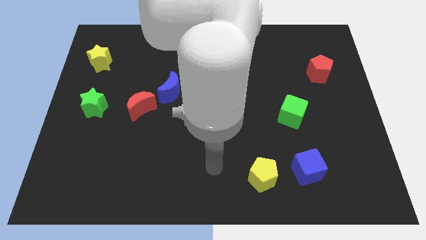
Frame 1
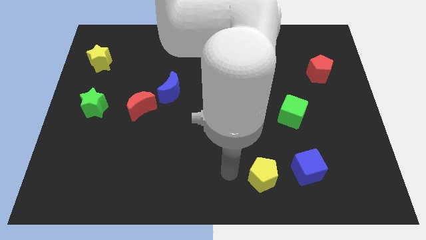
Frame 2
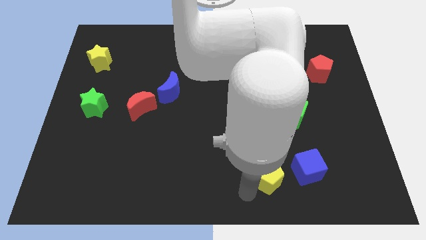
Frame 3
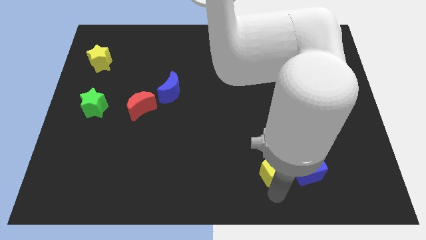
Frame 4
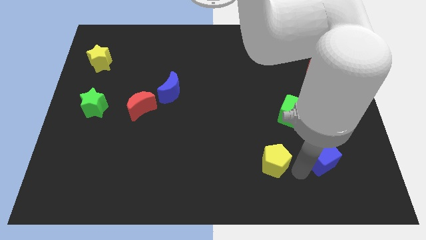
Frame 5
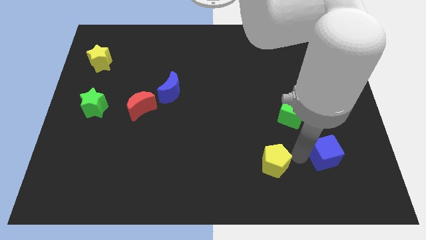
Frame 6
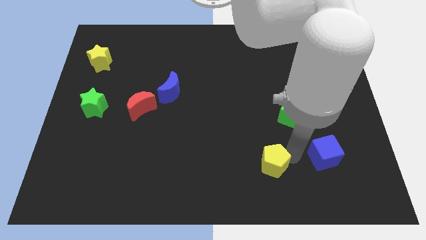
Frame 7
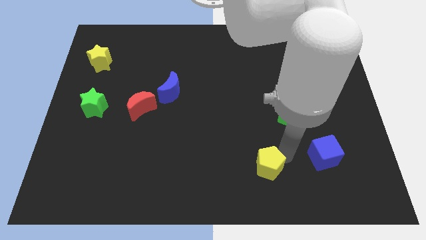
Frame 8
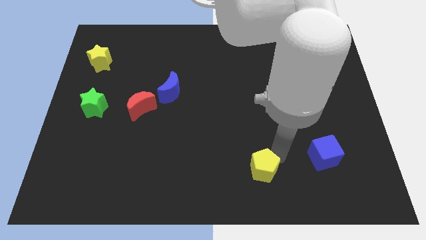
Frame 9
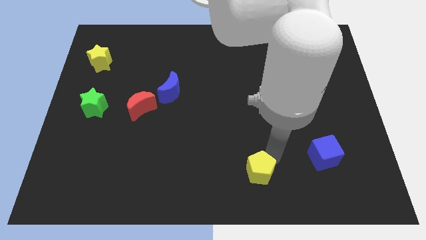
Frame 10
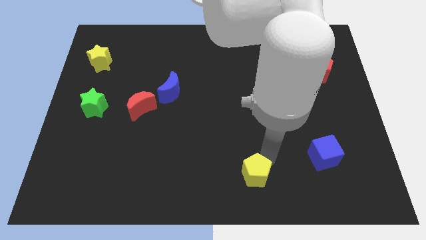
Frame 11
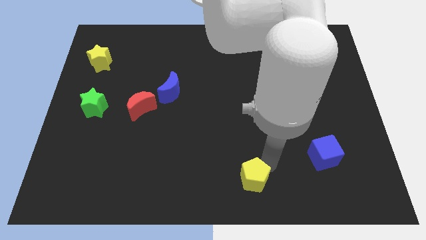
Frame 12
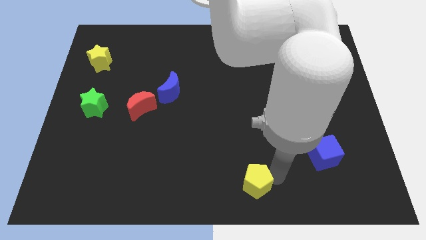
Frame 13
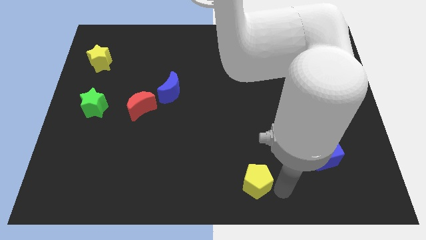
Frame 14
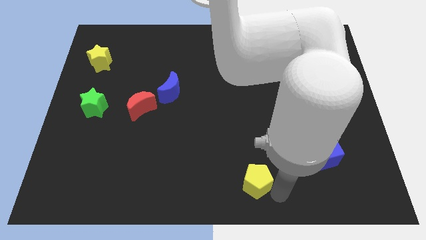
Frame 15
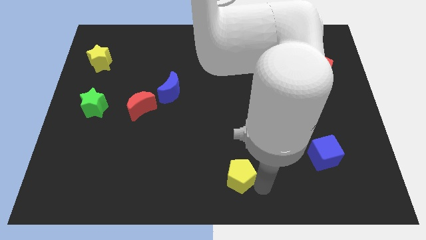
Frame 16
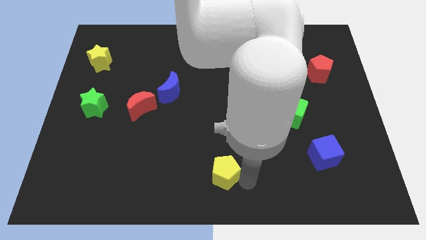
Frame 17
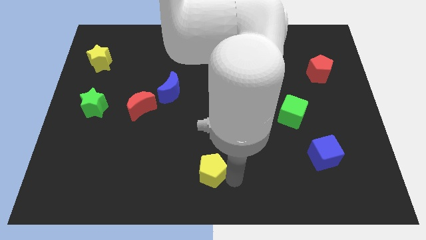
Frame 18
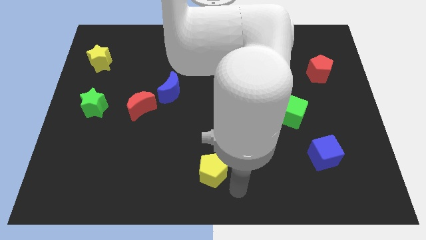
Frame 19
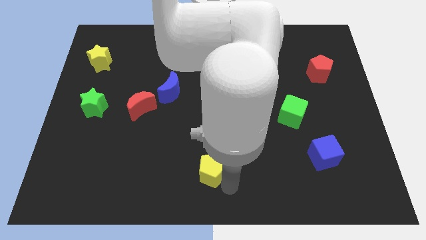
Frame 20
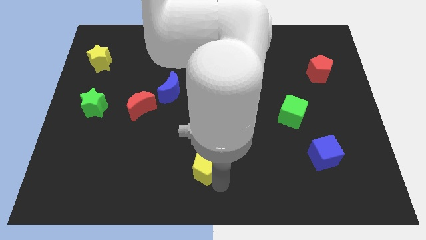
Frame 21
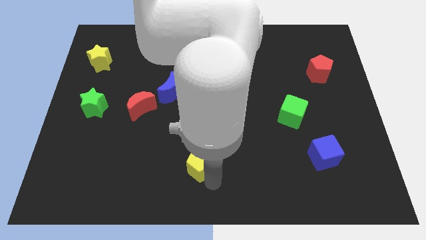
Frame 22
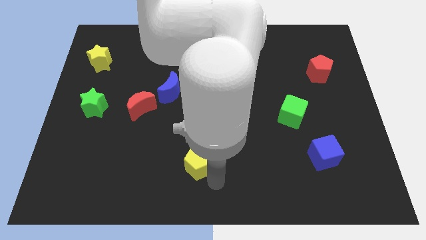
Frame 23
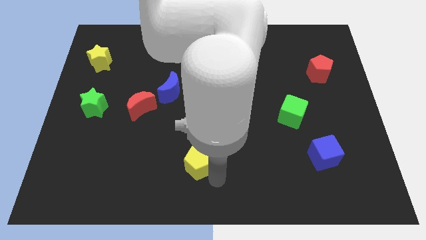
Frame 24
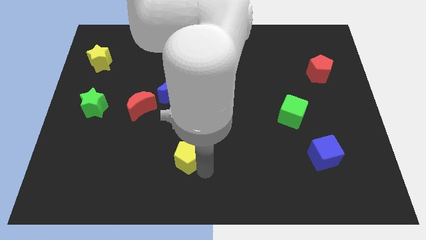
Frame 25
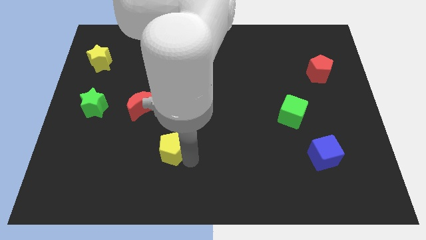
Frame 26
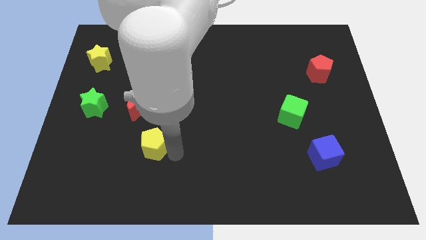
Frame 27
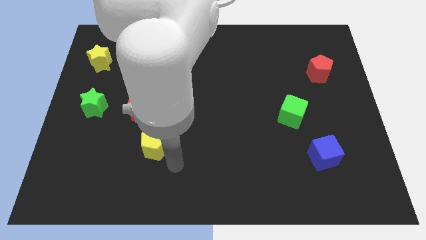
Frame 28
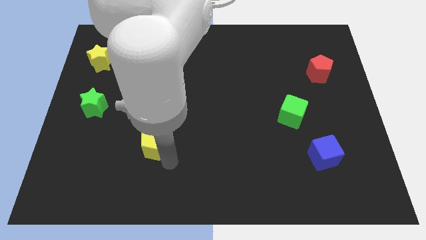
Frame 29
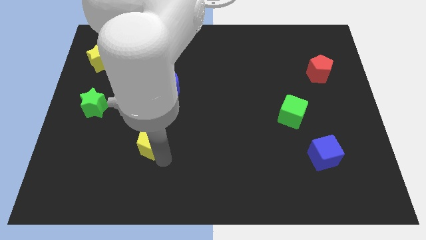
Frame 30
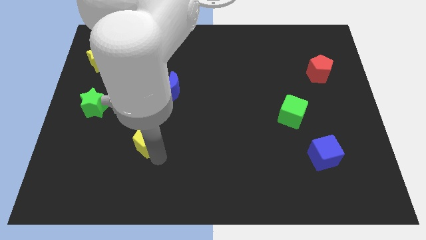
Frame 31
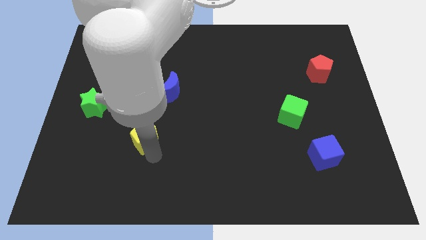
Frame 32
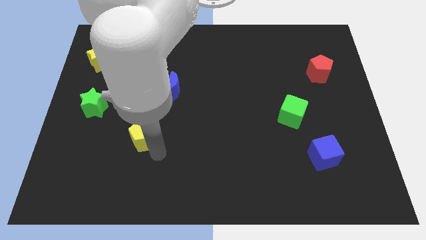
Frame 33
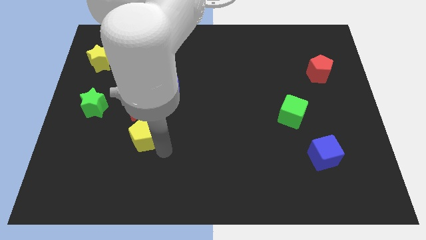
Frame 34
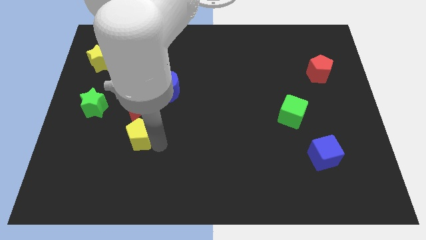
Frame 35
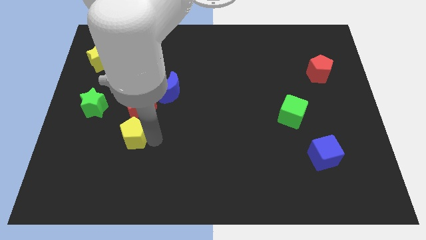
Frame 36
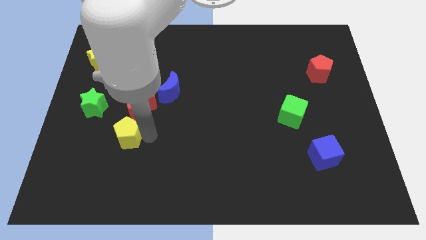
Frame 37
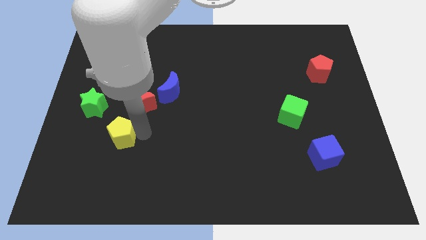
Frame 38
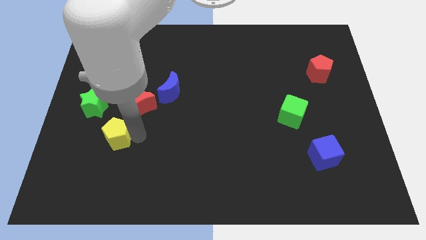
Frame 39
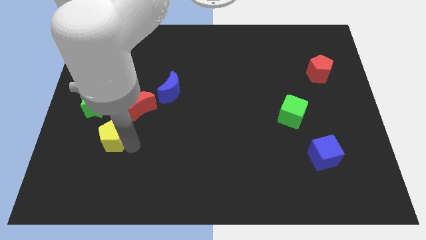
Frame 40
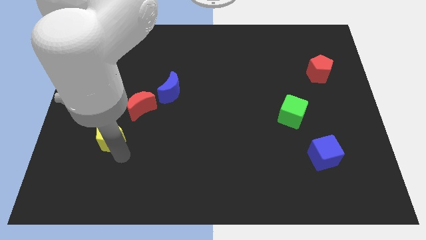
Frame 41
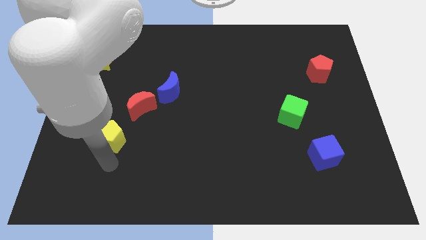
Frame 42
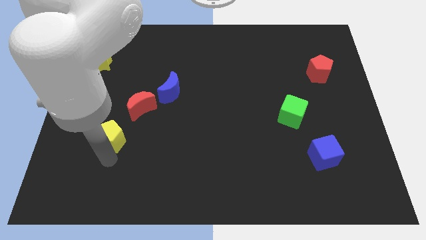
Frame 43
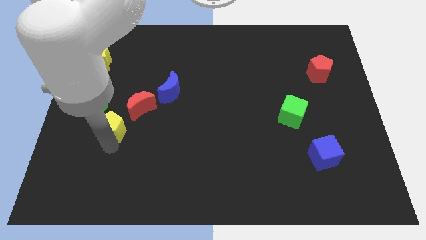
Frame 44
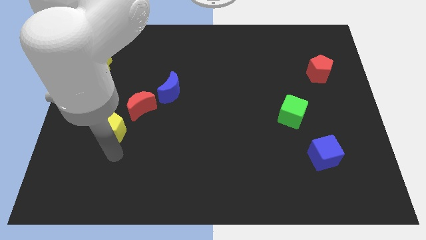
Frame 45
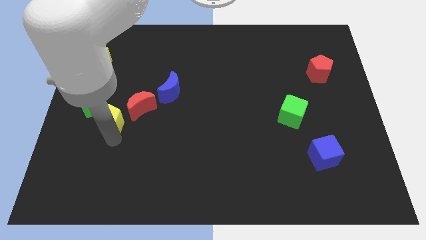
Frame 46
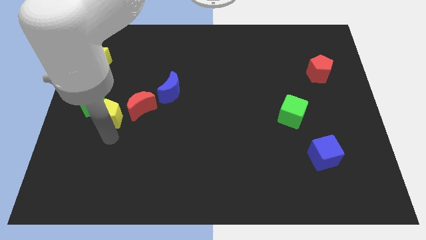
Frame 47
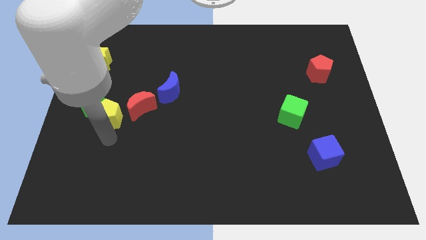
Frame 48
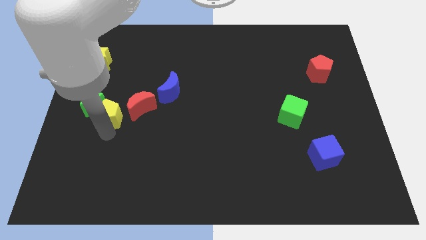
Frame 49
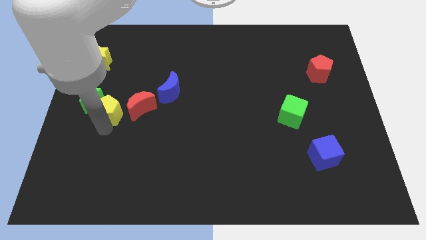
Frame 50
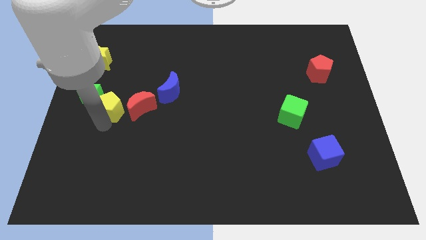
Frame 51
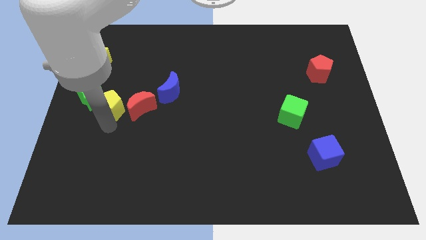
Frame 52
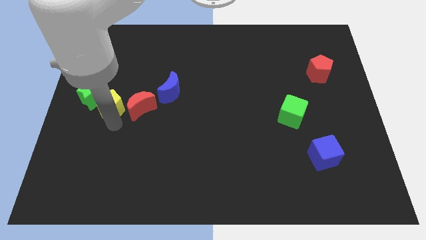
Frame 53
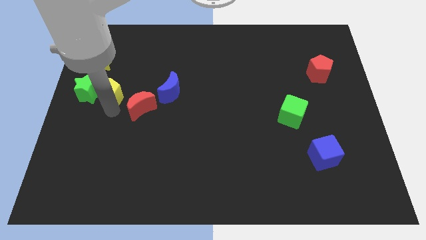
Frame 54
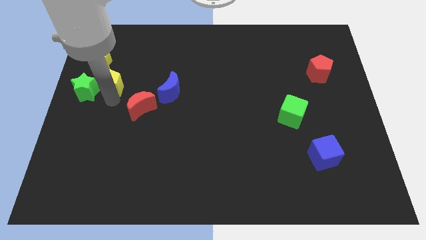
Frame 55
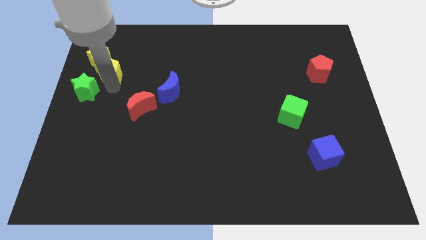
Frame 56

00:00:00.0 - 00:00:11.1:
push the yellow pentagon to the yellow star

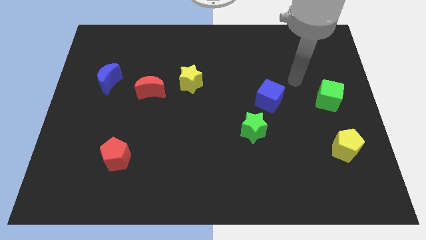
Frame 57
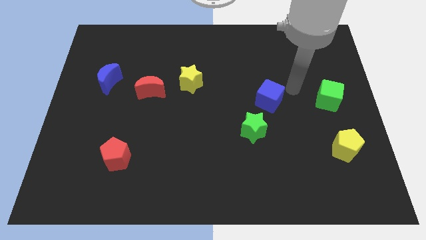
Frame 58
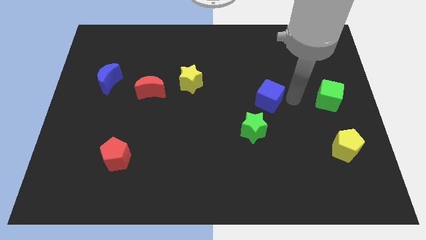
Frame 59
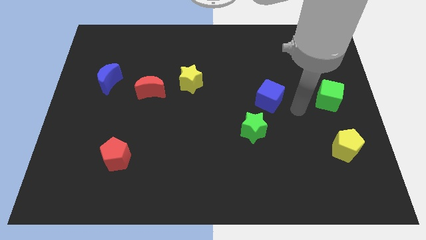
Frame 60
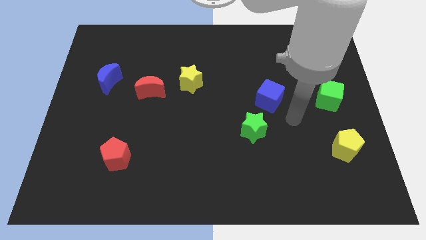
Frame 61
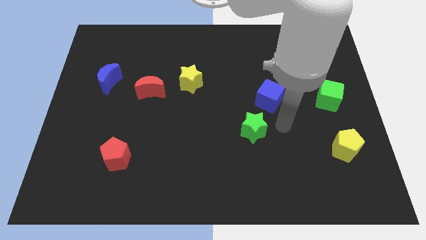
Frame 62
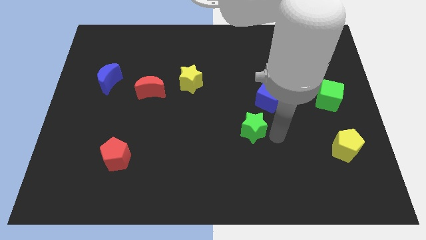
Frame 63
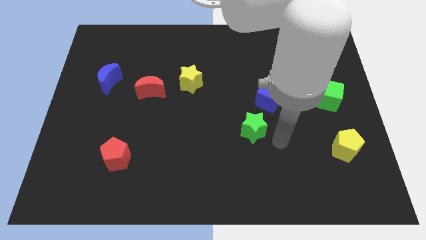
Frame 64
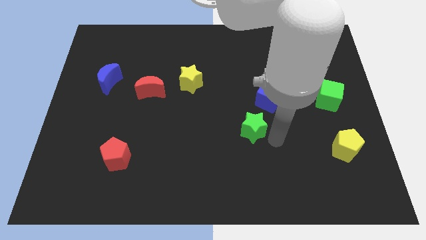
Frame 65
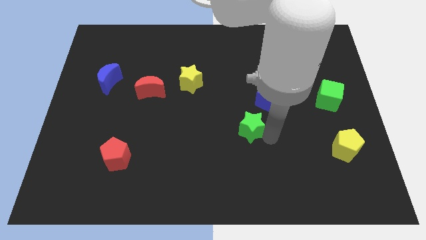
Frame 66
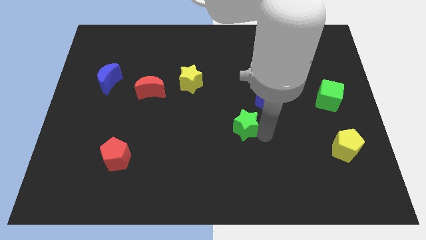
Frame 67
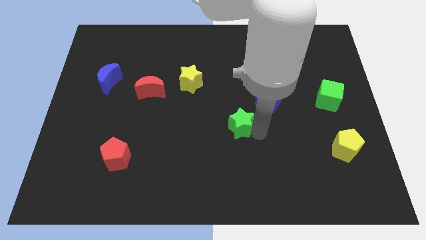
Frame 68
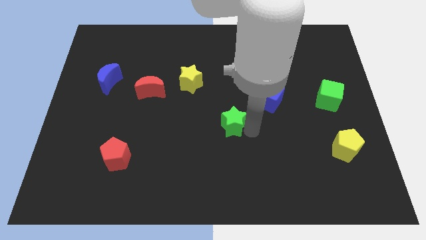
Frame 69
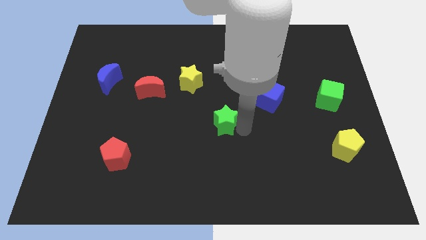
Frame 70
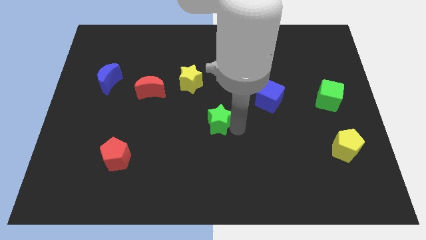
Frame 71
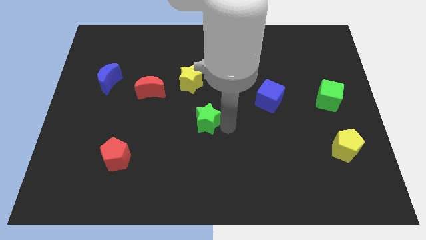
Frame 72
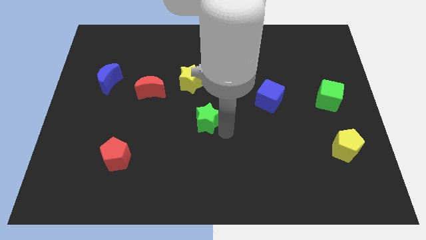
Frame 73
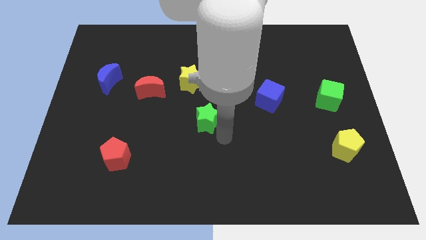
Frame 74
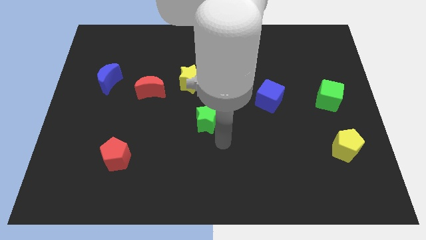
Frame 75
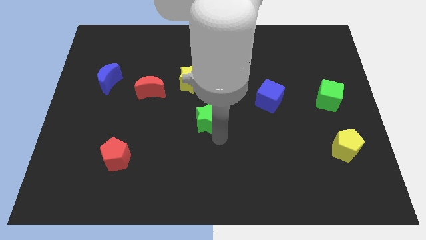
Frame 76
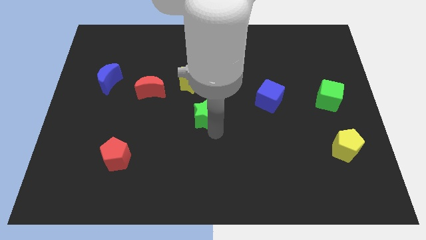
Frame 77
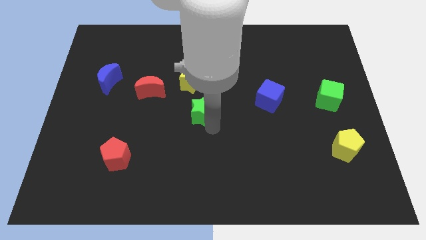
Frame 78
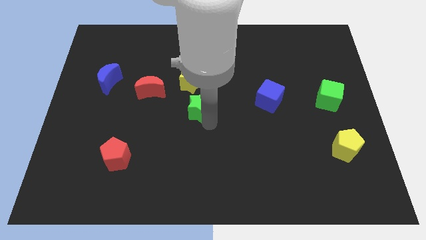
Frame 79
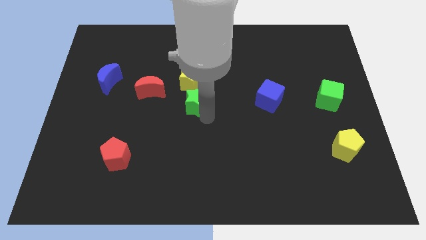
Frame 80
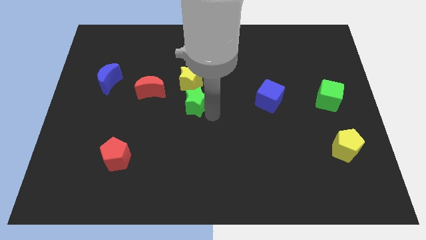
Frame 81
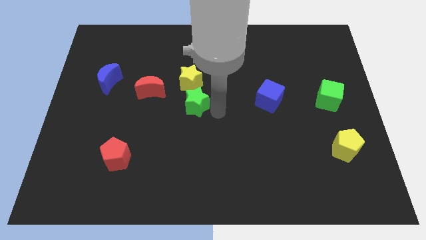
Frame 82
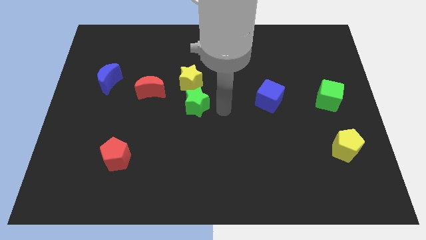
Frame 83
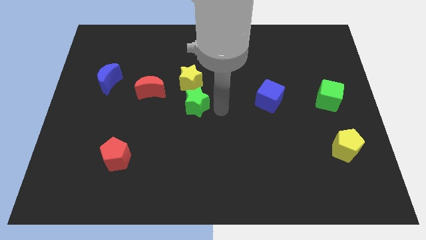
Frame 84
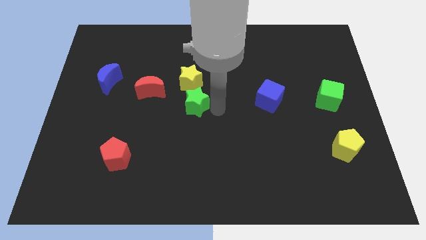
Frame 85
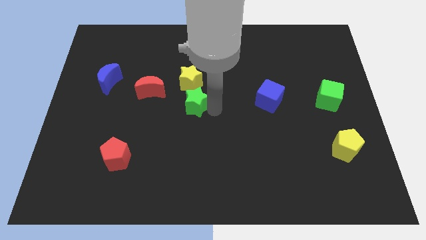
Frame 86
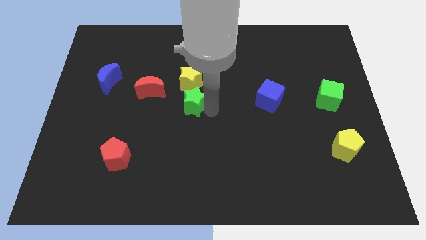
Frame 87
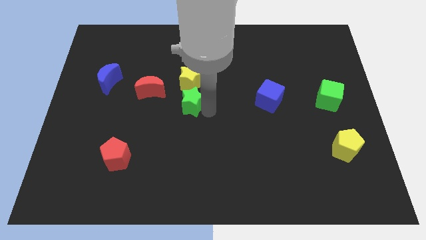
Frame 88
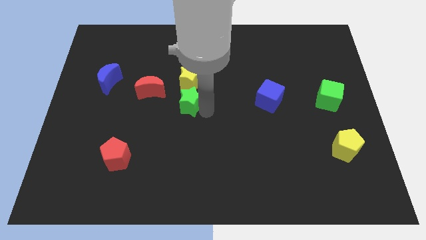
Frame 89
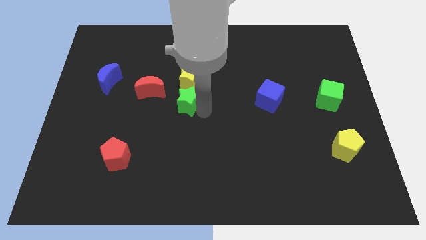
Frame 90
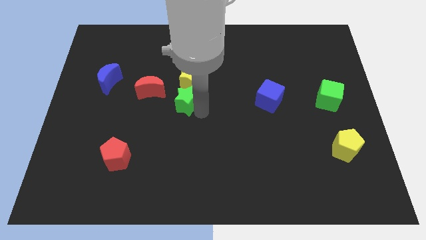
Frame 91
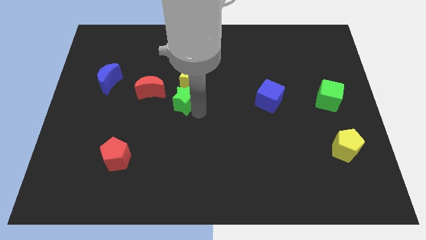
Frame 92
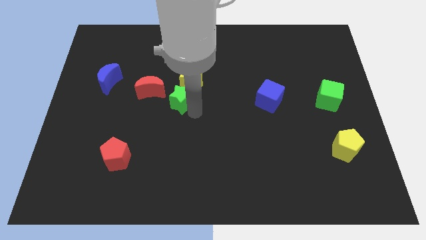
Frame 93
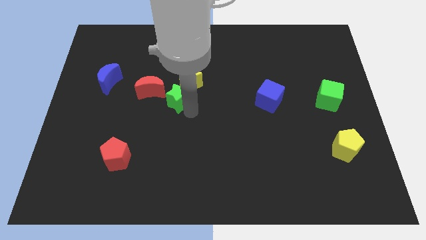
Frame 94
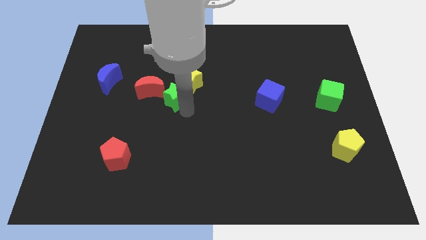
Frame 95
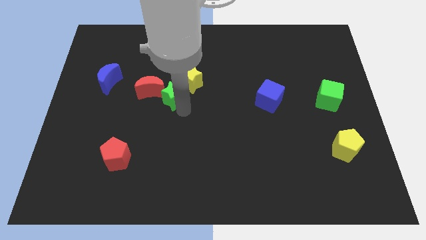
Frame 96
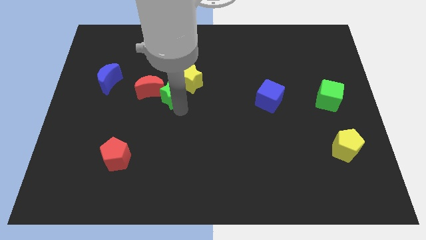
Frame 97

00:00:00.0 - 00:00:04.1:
move the green star to the red moon
